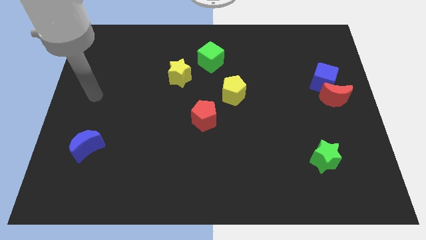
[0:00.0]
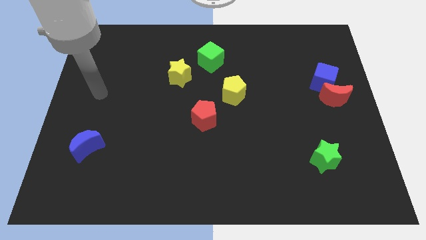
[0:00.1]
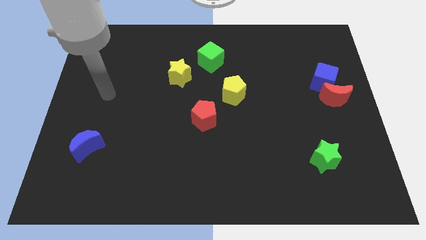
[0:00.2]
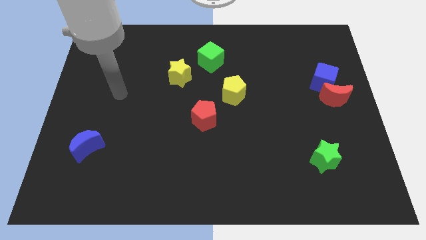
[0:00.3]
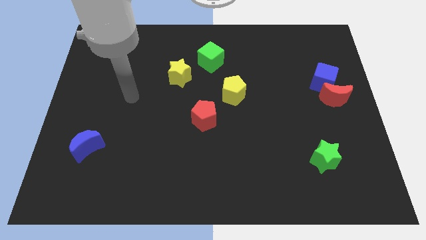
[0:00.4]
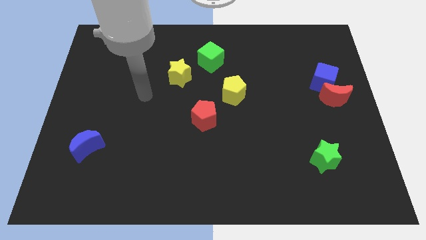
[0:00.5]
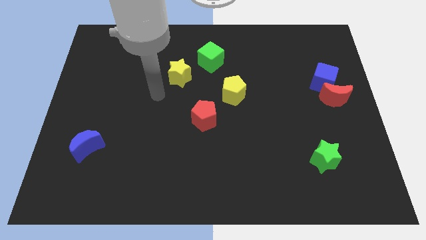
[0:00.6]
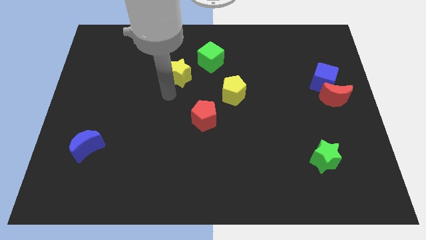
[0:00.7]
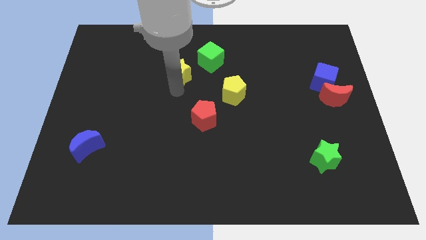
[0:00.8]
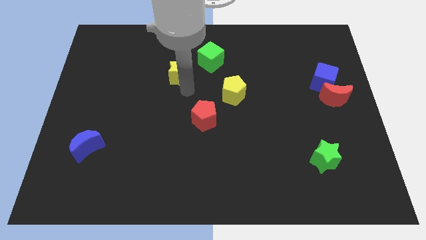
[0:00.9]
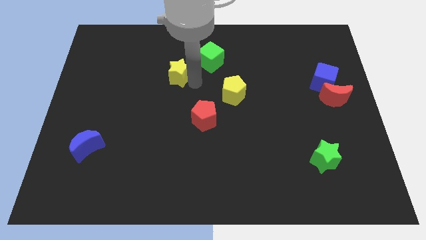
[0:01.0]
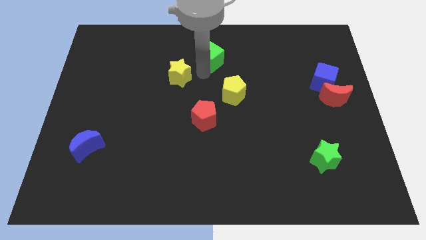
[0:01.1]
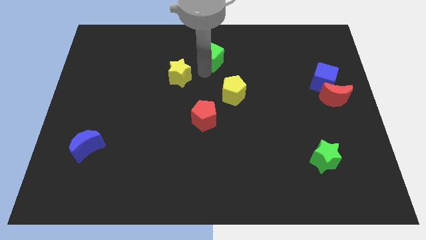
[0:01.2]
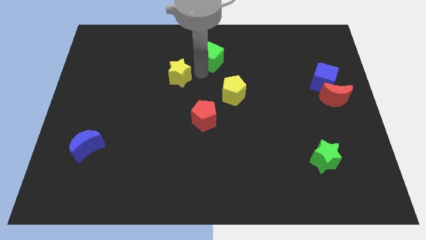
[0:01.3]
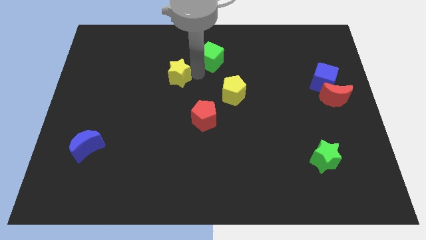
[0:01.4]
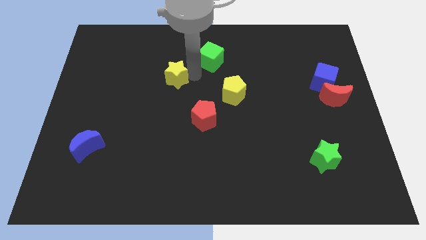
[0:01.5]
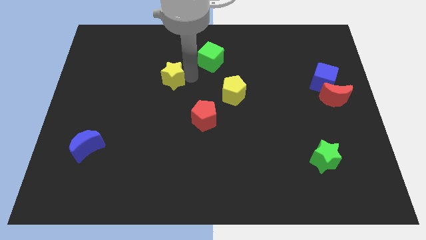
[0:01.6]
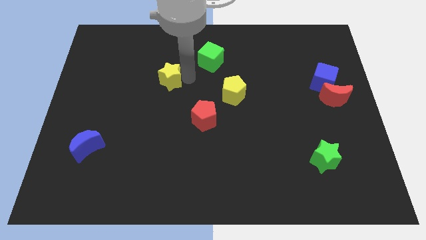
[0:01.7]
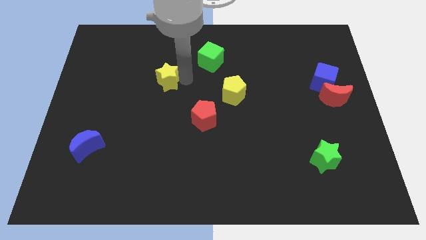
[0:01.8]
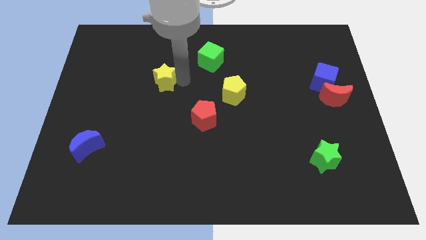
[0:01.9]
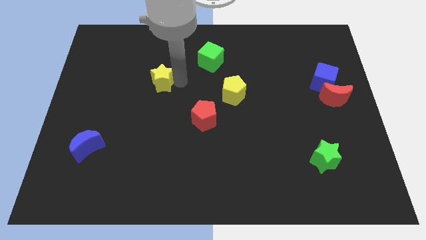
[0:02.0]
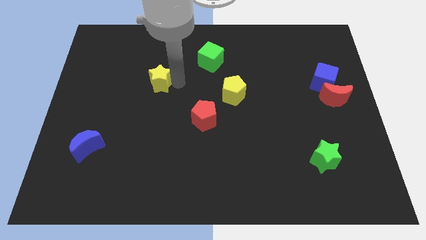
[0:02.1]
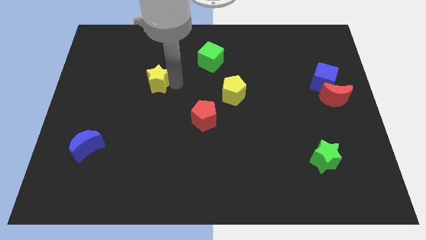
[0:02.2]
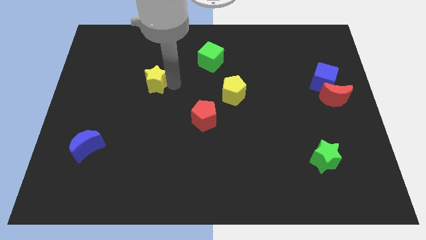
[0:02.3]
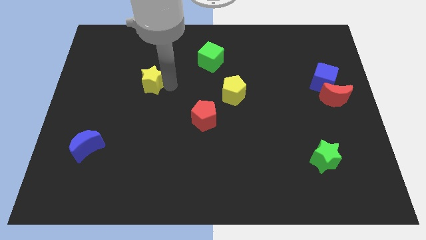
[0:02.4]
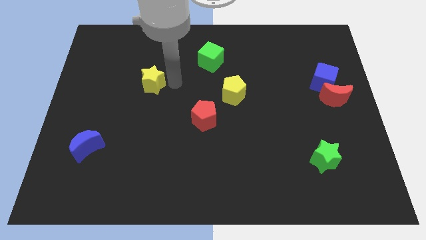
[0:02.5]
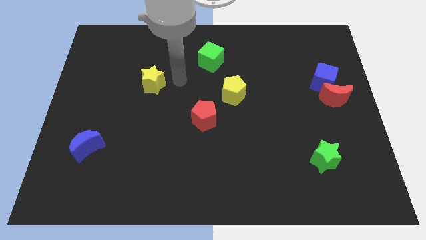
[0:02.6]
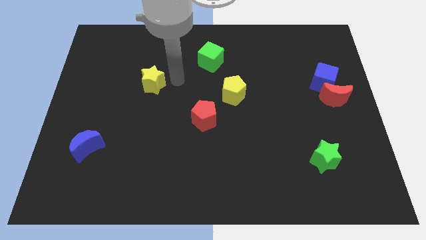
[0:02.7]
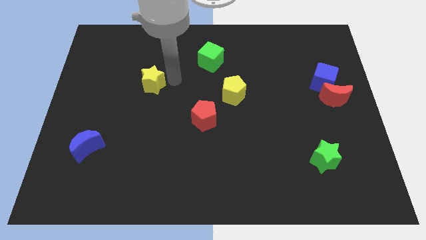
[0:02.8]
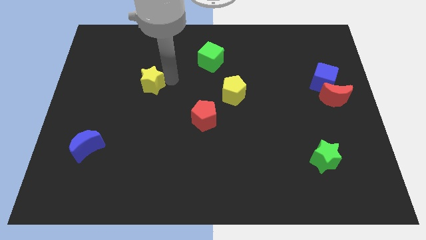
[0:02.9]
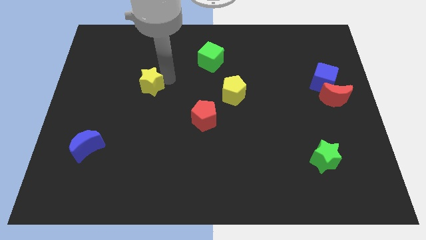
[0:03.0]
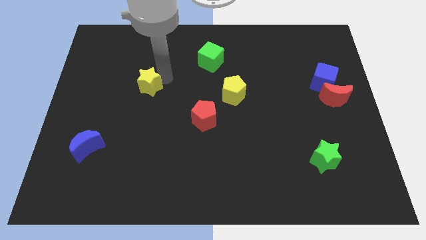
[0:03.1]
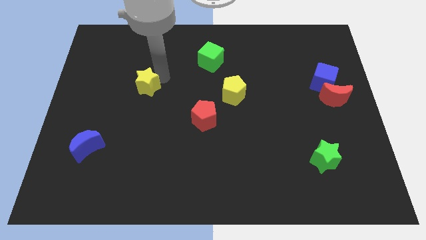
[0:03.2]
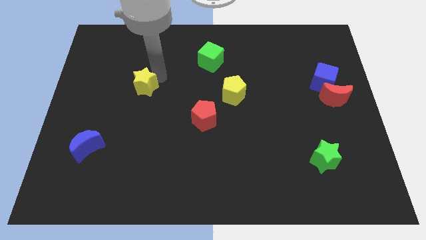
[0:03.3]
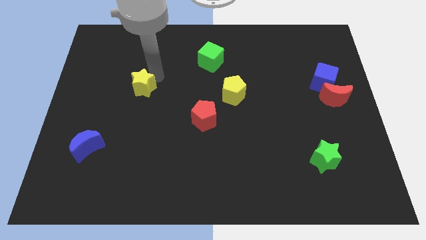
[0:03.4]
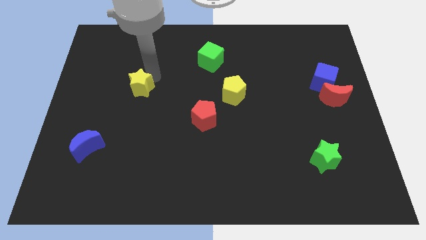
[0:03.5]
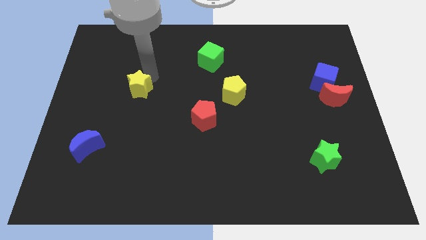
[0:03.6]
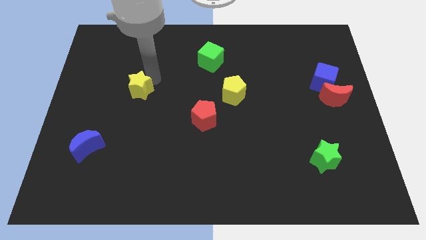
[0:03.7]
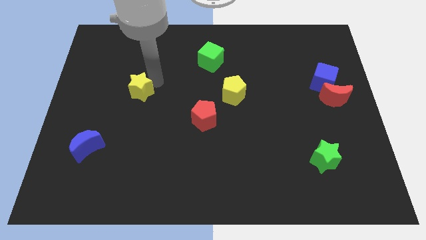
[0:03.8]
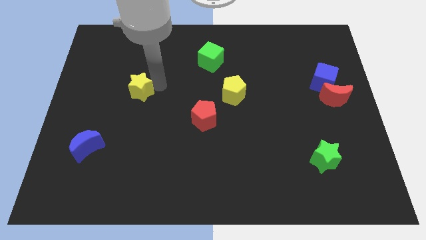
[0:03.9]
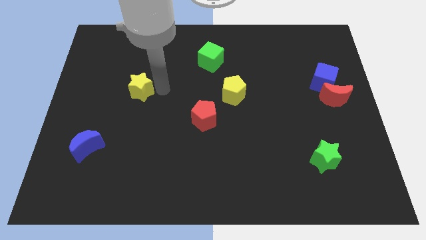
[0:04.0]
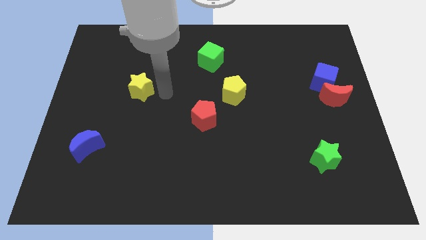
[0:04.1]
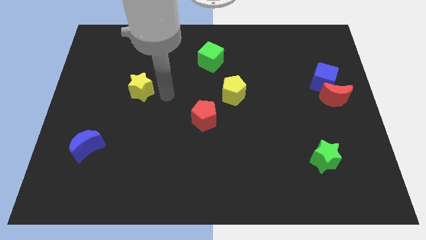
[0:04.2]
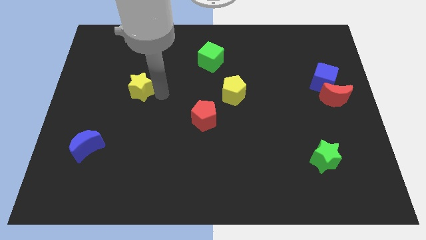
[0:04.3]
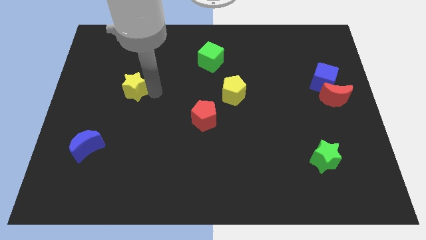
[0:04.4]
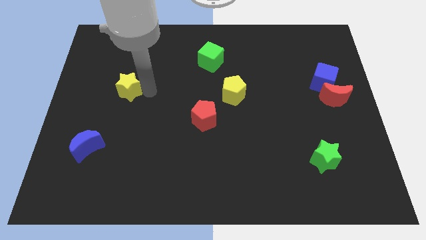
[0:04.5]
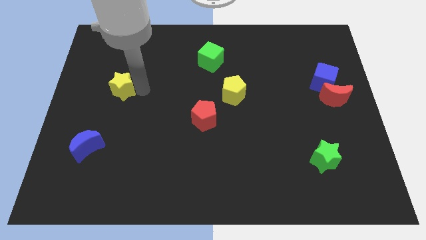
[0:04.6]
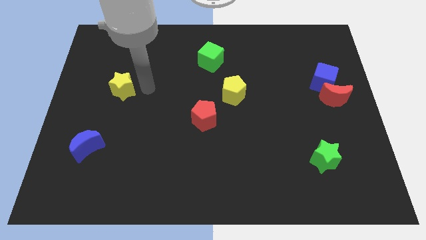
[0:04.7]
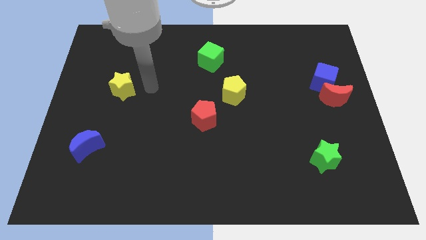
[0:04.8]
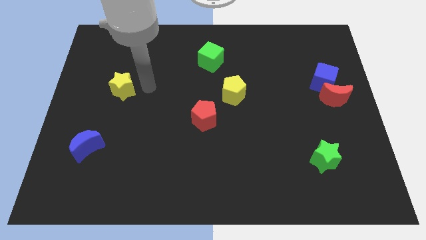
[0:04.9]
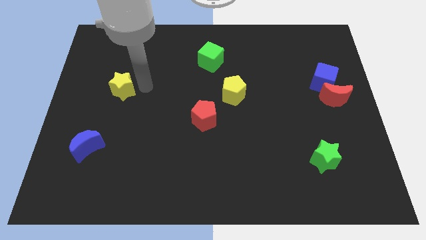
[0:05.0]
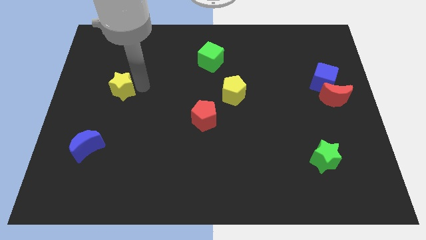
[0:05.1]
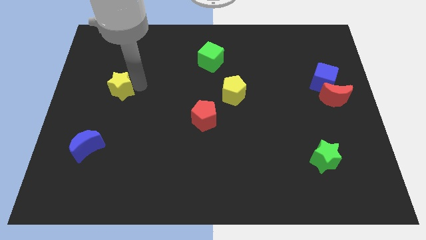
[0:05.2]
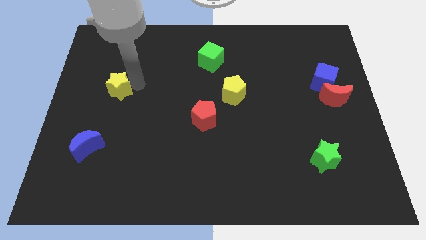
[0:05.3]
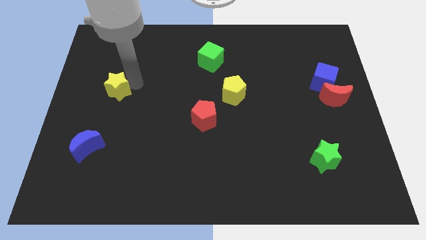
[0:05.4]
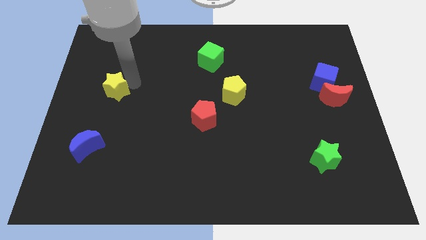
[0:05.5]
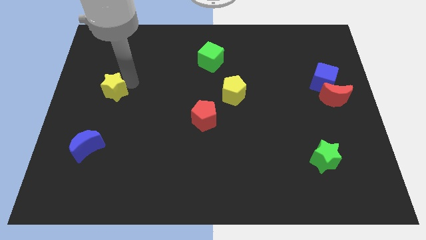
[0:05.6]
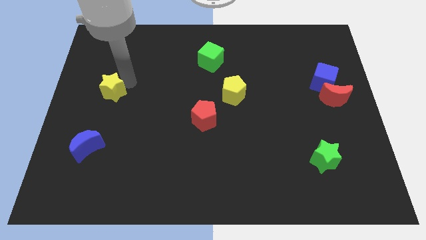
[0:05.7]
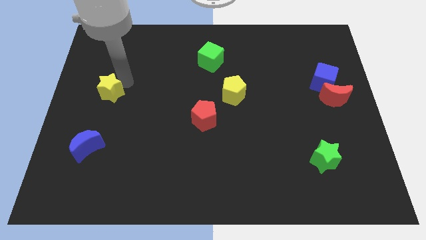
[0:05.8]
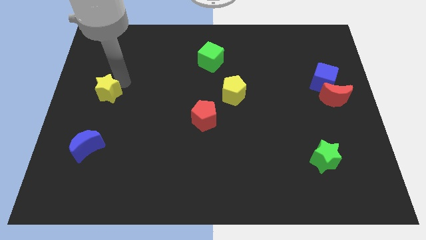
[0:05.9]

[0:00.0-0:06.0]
move the yellow star to the center left

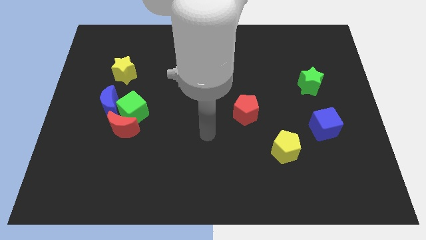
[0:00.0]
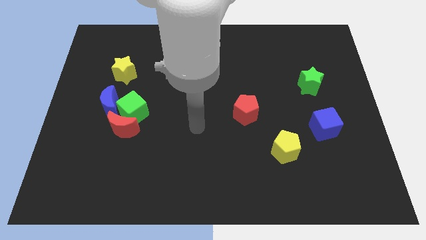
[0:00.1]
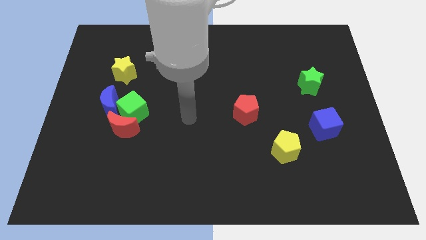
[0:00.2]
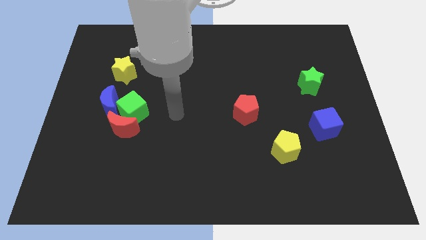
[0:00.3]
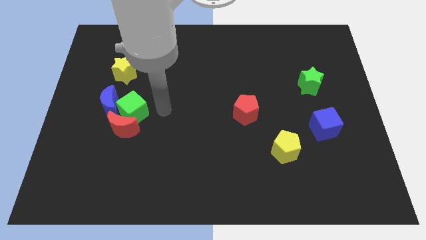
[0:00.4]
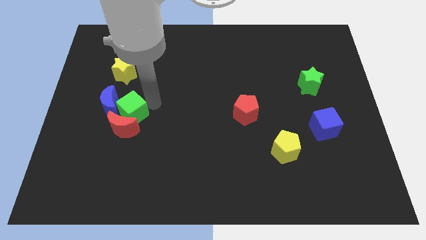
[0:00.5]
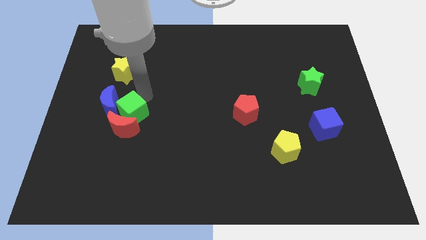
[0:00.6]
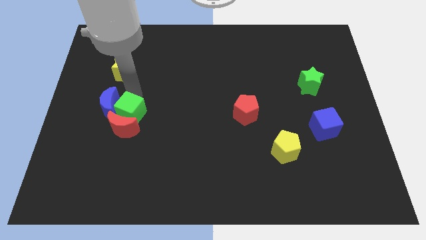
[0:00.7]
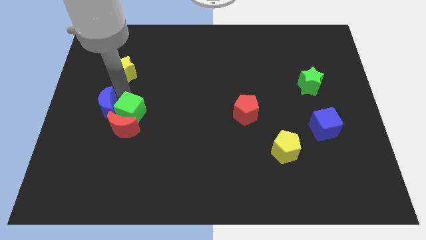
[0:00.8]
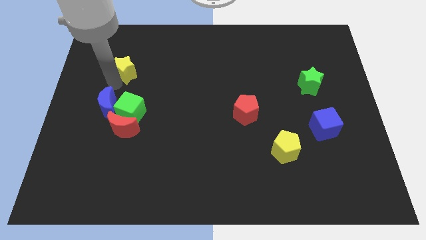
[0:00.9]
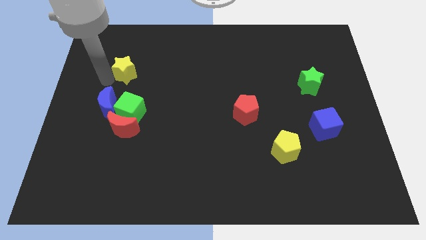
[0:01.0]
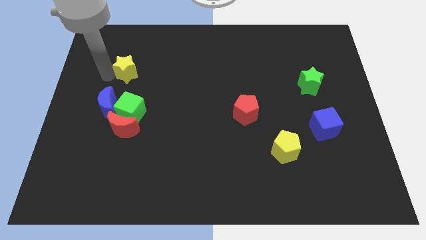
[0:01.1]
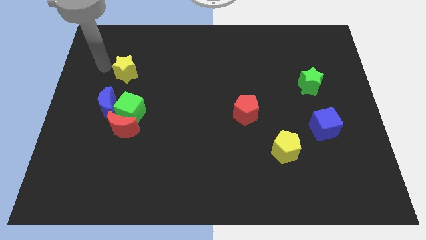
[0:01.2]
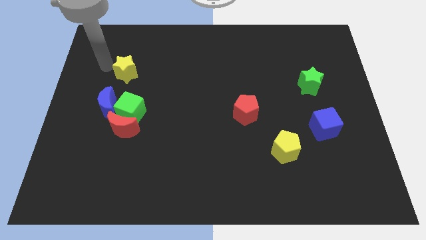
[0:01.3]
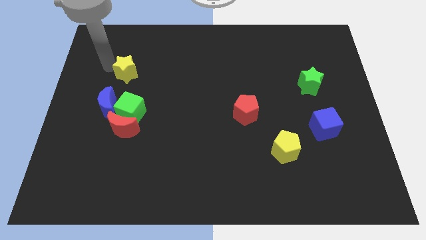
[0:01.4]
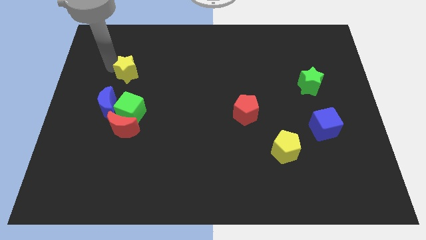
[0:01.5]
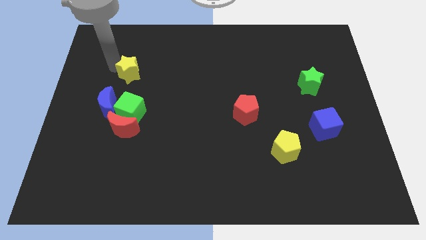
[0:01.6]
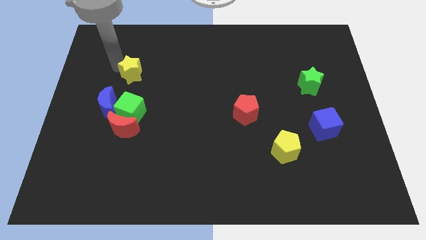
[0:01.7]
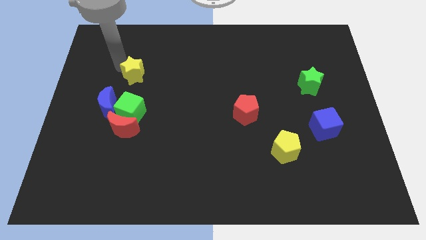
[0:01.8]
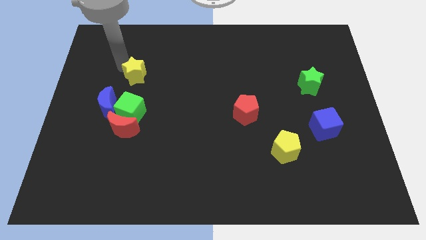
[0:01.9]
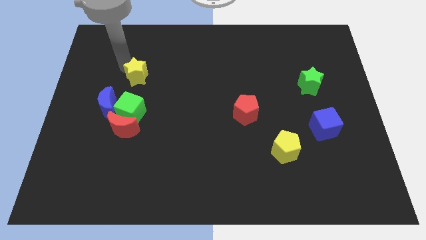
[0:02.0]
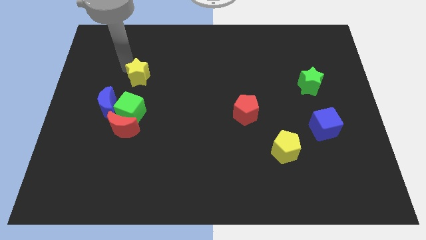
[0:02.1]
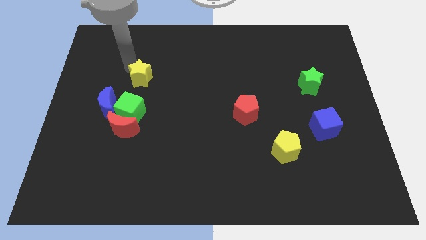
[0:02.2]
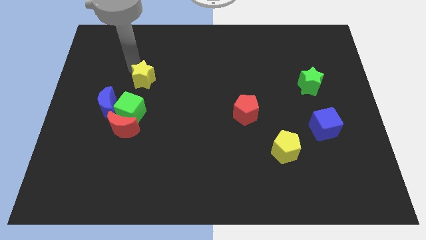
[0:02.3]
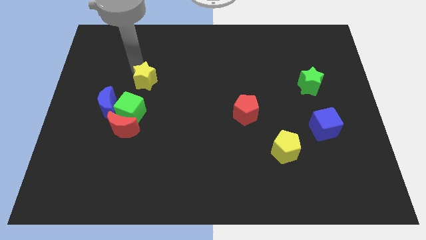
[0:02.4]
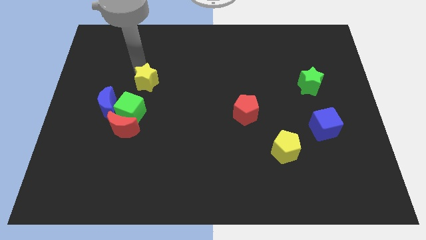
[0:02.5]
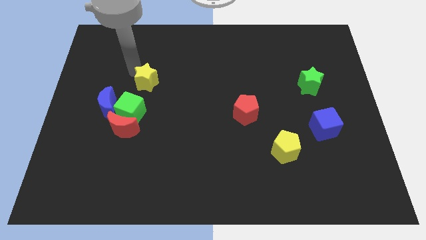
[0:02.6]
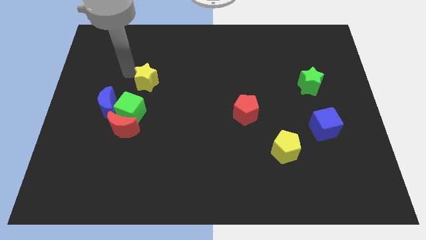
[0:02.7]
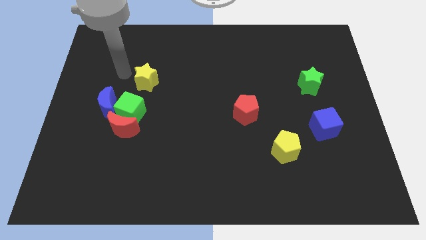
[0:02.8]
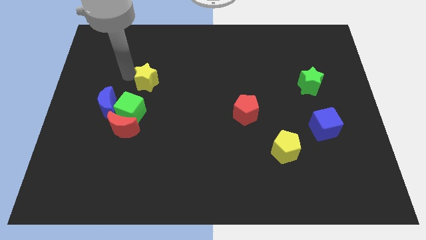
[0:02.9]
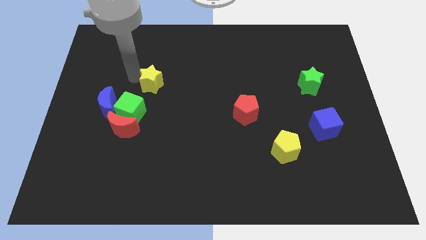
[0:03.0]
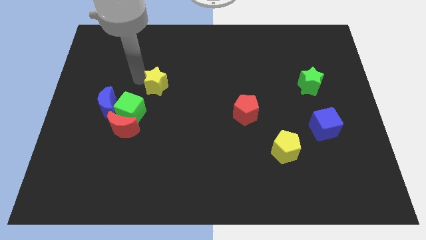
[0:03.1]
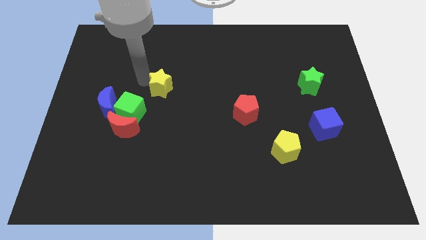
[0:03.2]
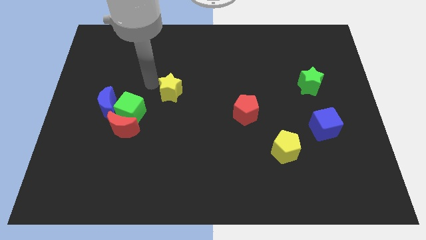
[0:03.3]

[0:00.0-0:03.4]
slide the yellow star to the middle
